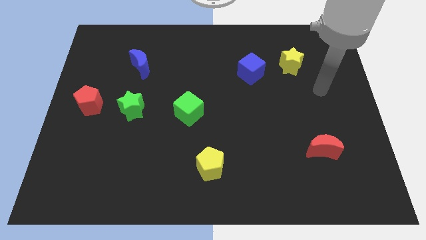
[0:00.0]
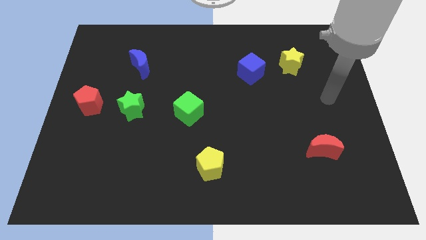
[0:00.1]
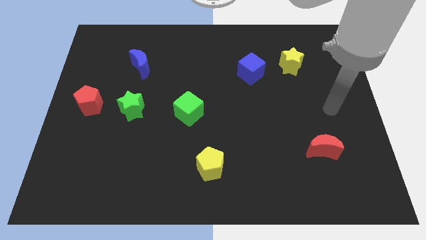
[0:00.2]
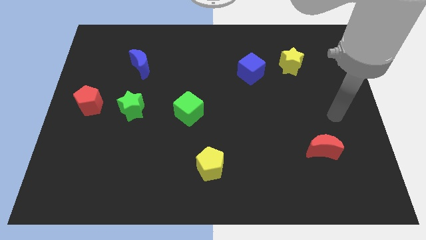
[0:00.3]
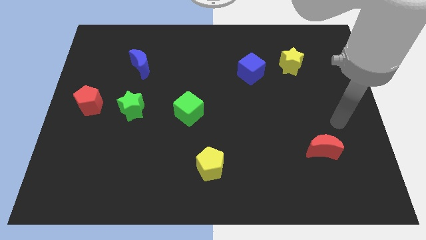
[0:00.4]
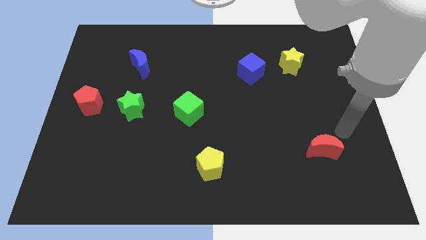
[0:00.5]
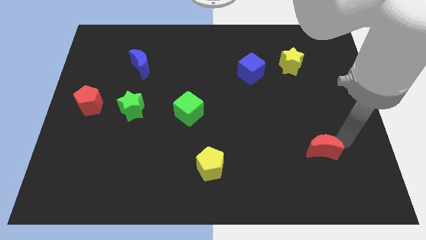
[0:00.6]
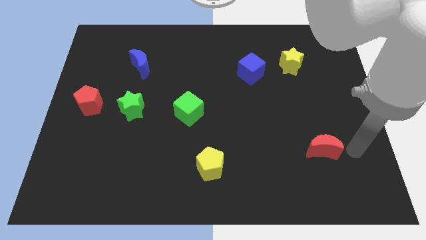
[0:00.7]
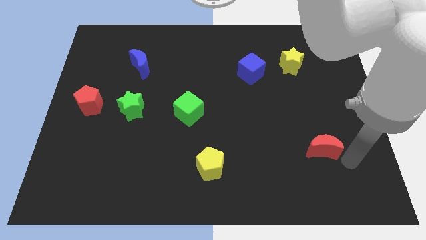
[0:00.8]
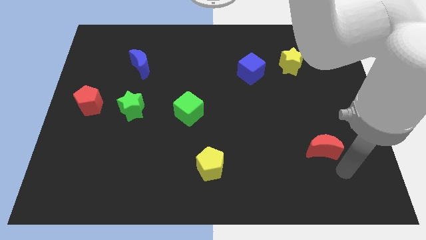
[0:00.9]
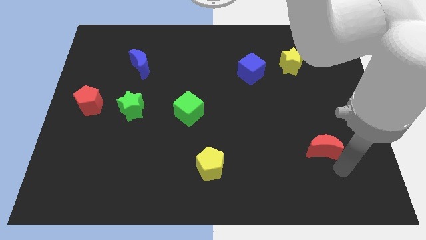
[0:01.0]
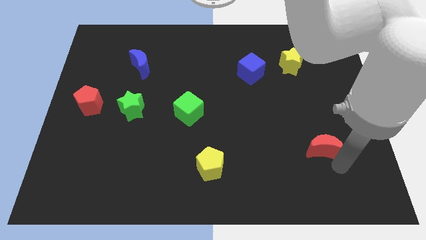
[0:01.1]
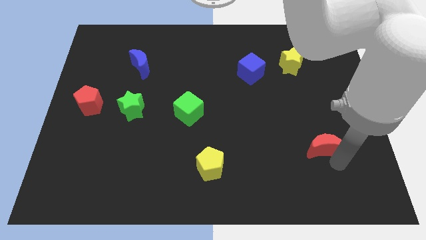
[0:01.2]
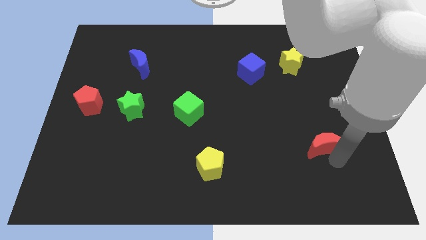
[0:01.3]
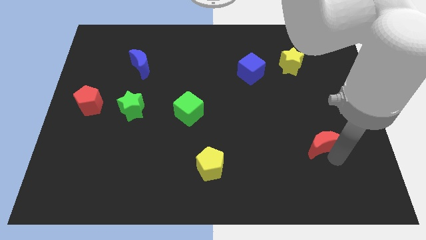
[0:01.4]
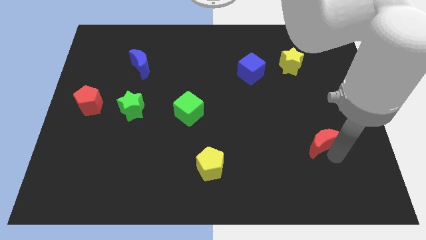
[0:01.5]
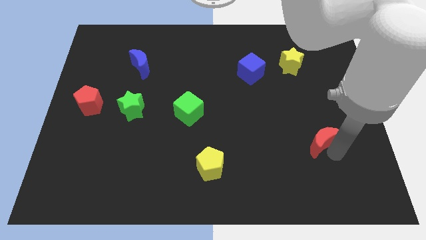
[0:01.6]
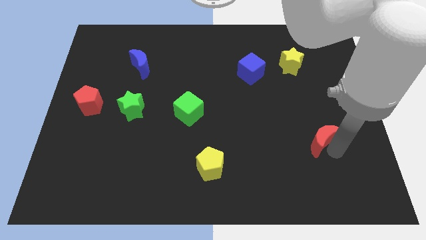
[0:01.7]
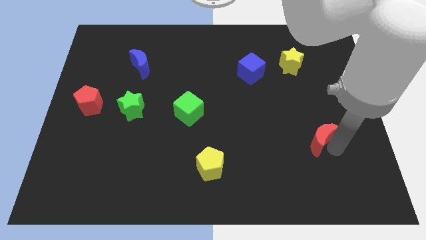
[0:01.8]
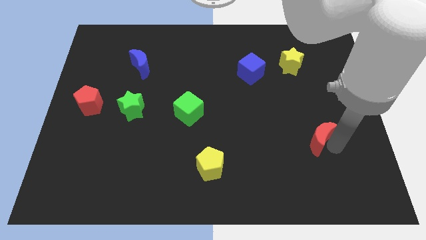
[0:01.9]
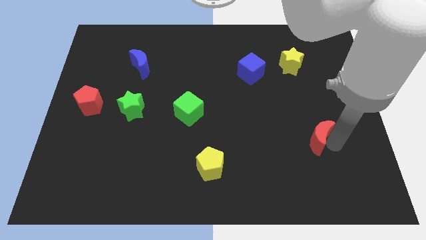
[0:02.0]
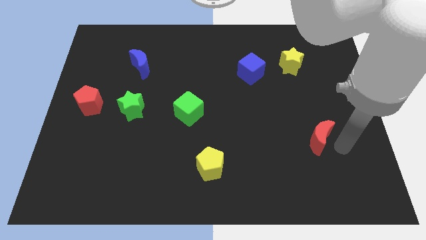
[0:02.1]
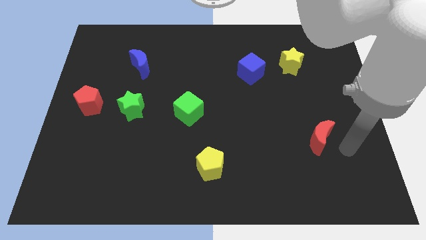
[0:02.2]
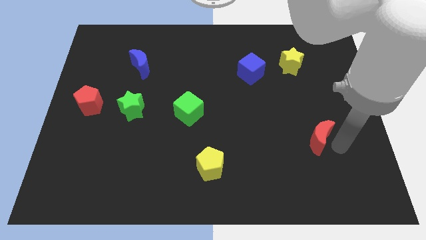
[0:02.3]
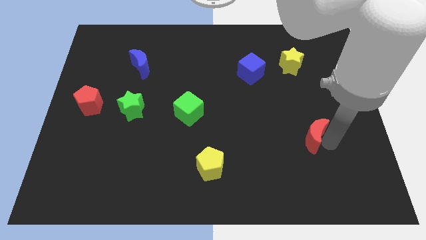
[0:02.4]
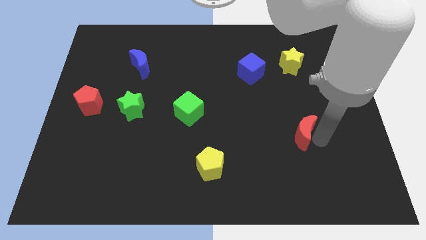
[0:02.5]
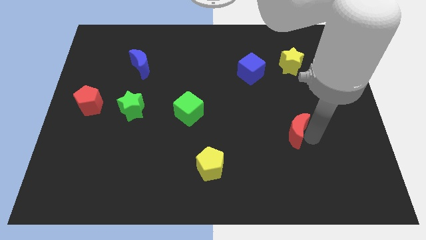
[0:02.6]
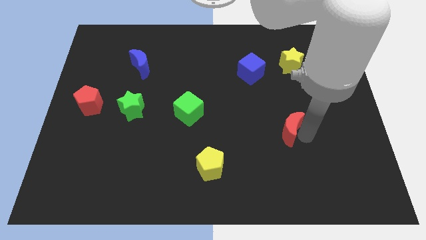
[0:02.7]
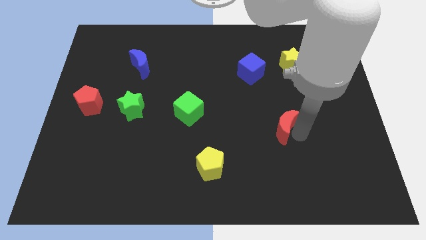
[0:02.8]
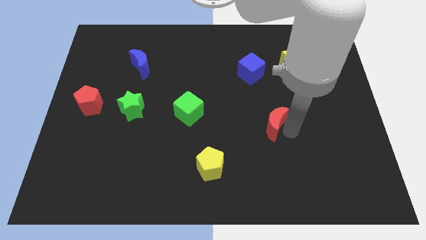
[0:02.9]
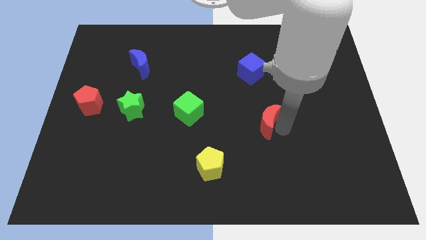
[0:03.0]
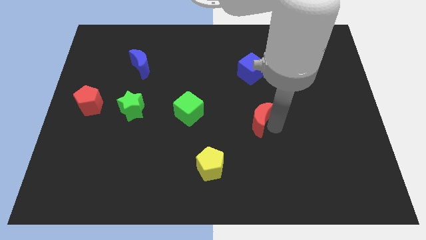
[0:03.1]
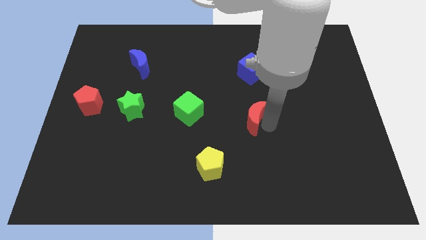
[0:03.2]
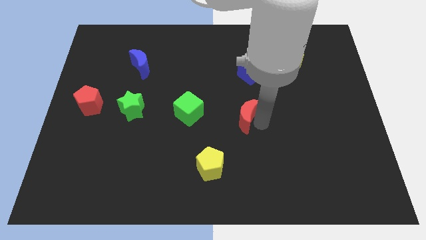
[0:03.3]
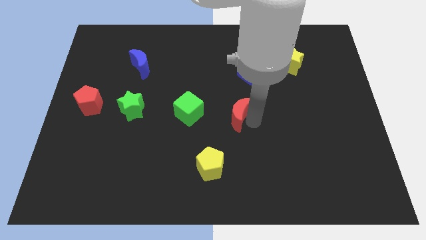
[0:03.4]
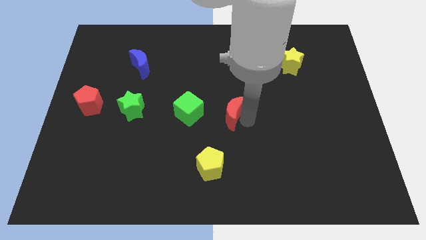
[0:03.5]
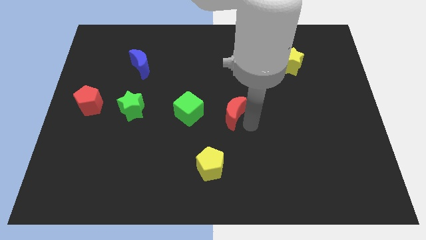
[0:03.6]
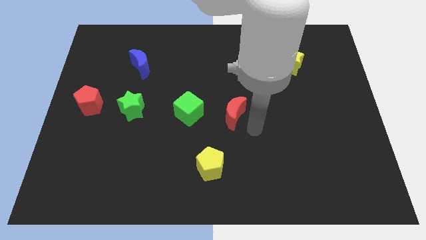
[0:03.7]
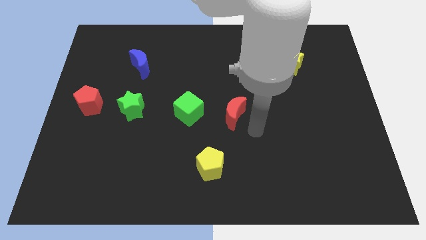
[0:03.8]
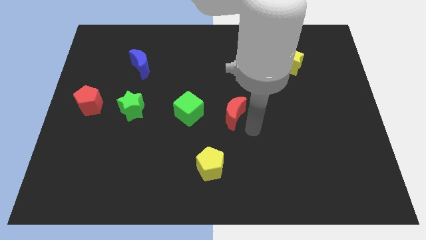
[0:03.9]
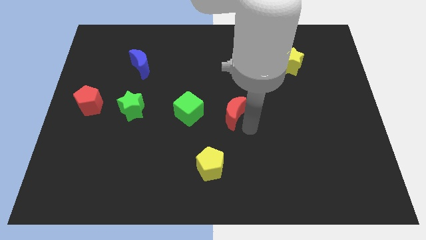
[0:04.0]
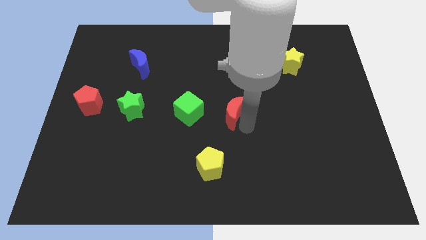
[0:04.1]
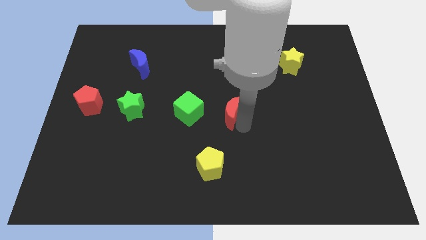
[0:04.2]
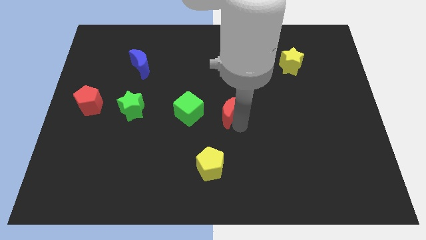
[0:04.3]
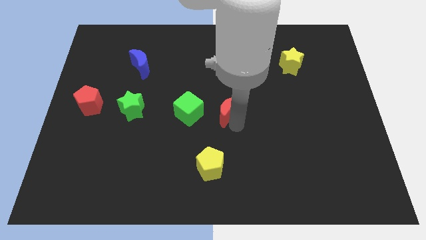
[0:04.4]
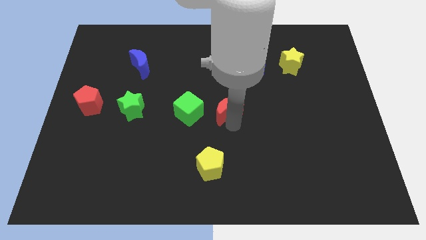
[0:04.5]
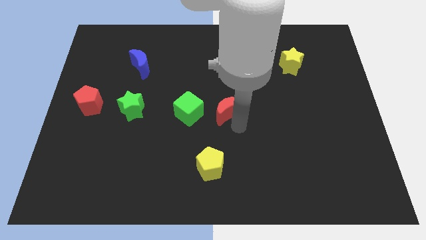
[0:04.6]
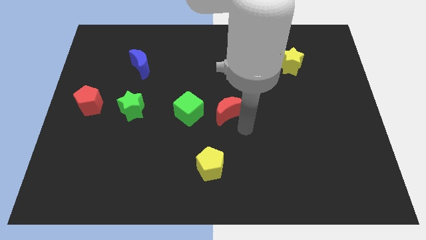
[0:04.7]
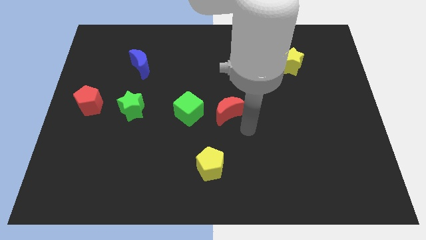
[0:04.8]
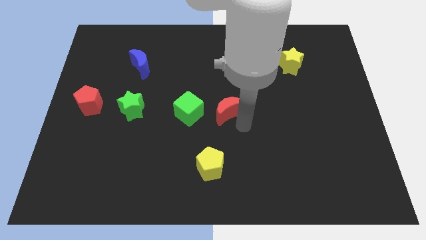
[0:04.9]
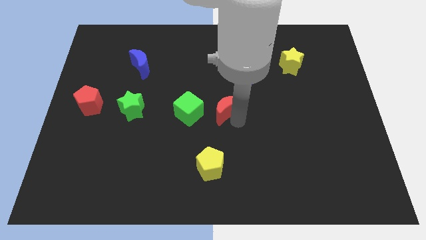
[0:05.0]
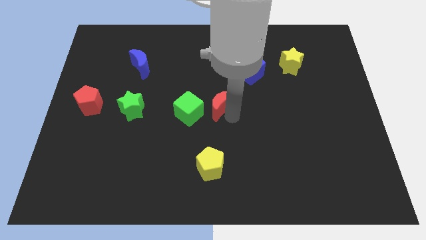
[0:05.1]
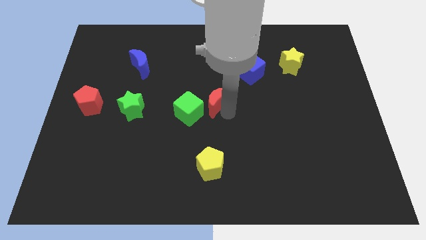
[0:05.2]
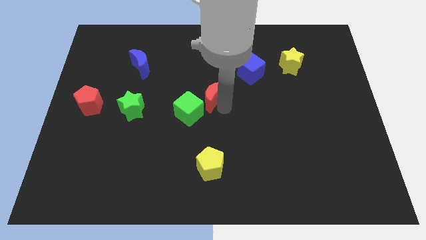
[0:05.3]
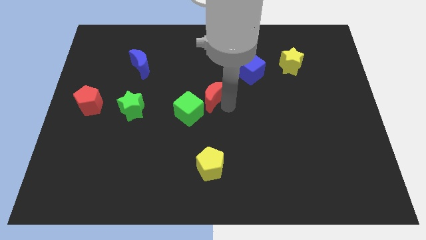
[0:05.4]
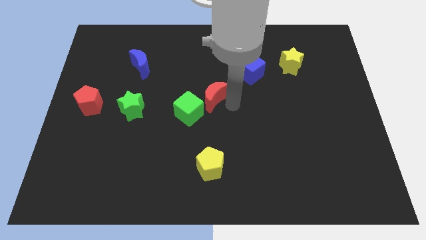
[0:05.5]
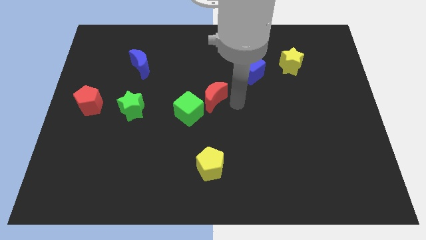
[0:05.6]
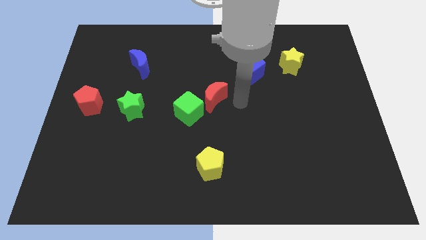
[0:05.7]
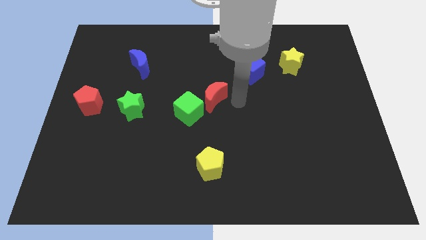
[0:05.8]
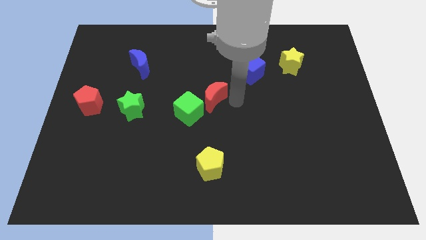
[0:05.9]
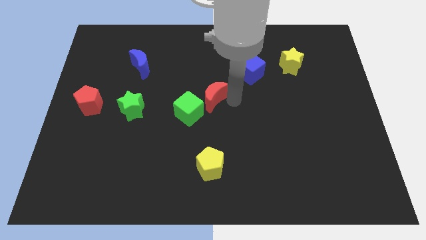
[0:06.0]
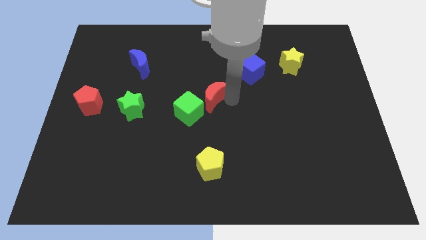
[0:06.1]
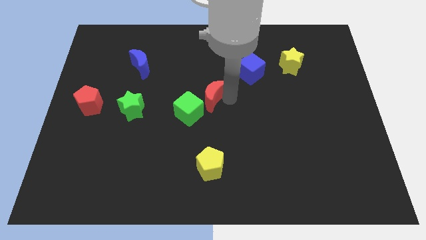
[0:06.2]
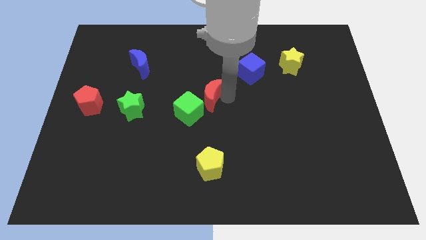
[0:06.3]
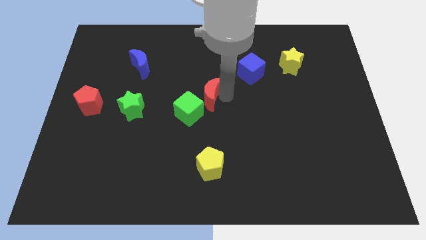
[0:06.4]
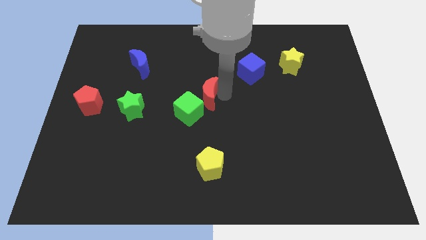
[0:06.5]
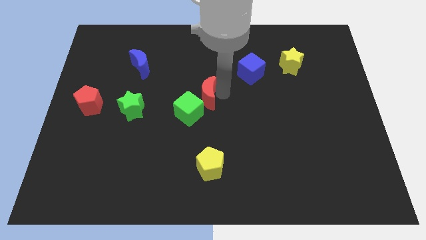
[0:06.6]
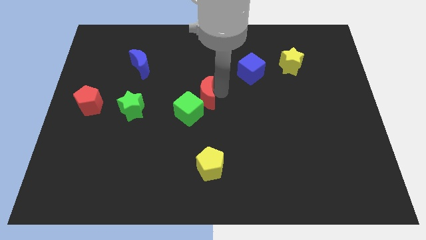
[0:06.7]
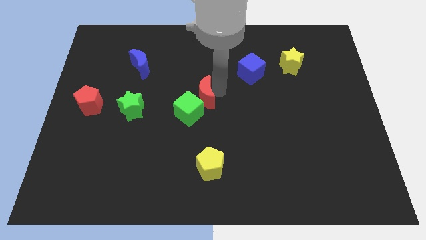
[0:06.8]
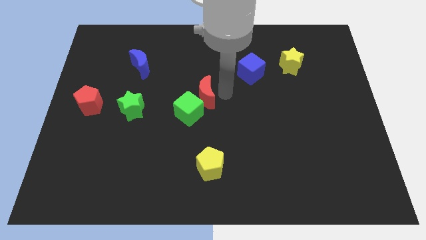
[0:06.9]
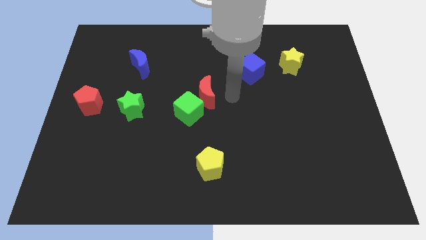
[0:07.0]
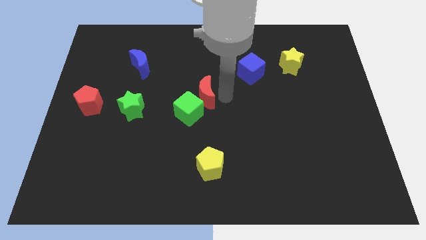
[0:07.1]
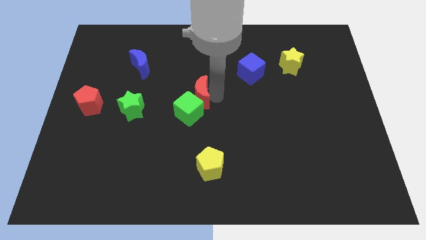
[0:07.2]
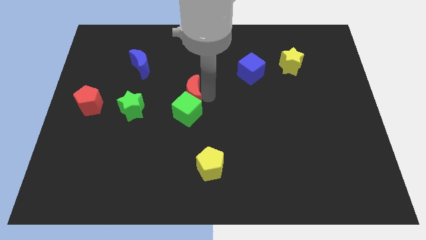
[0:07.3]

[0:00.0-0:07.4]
put the red moon to the top left of the green cube
